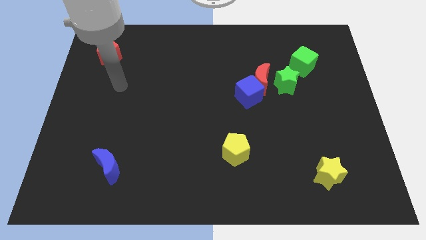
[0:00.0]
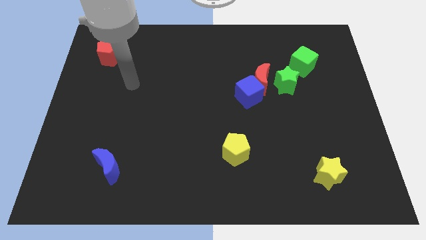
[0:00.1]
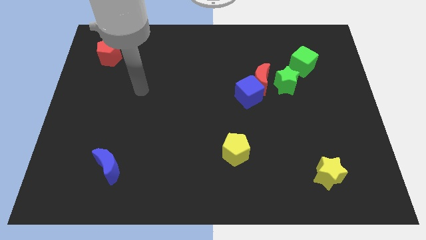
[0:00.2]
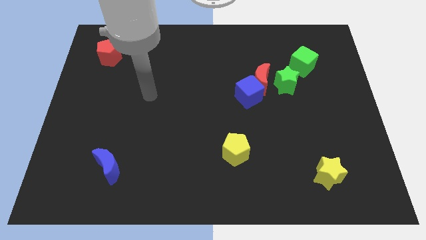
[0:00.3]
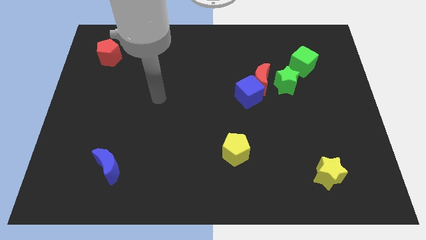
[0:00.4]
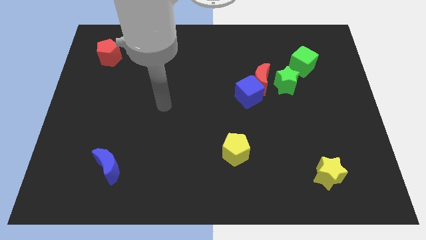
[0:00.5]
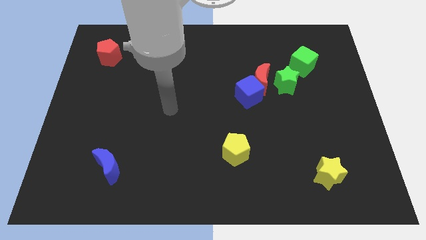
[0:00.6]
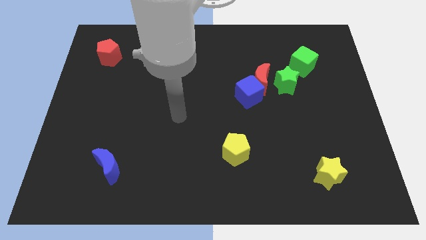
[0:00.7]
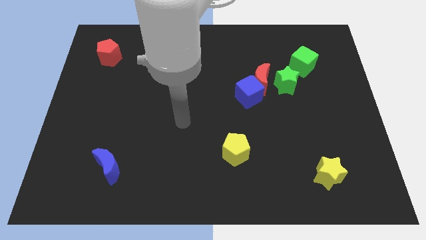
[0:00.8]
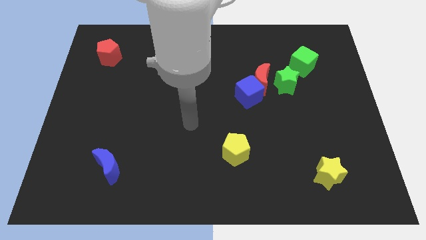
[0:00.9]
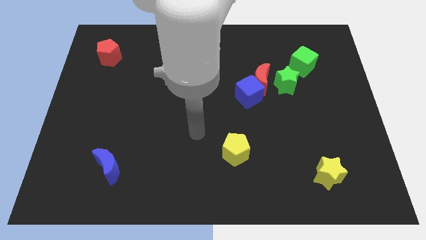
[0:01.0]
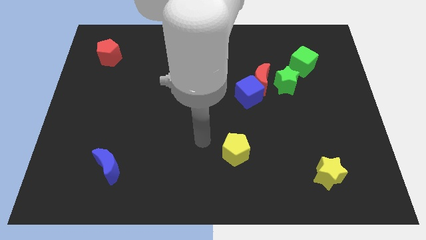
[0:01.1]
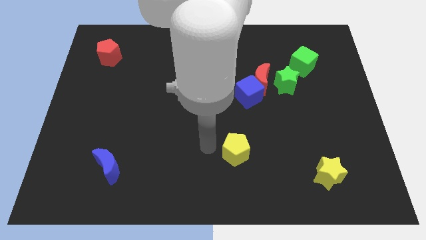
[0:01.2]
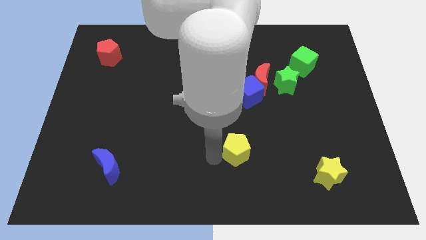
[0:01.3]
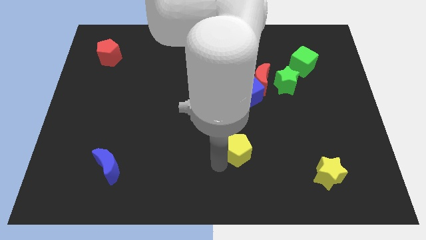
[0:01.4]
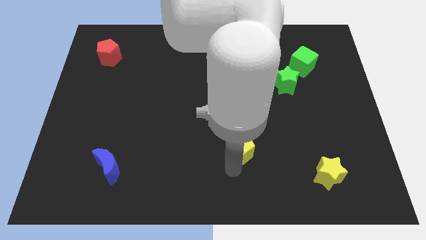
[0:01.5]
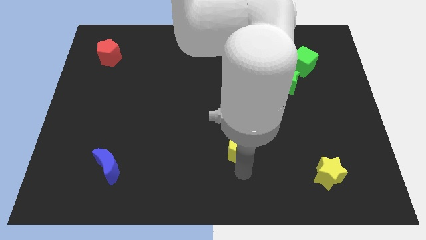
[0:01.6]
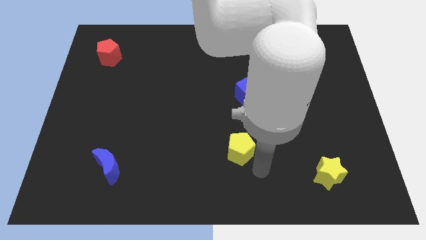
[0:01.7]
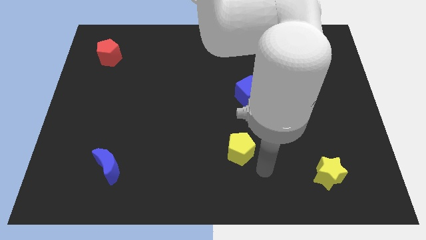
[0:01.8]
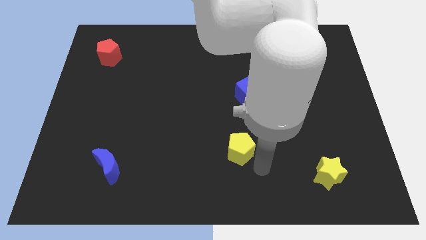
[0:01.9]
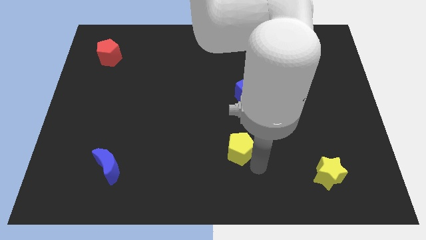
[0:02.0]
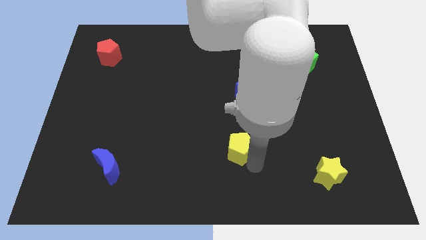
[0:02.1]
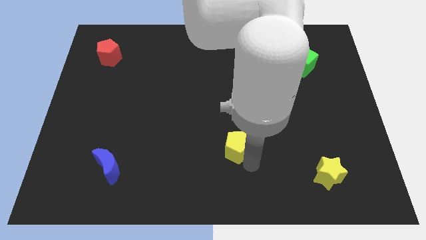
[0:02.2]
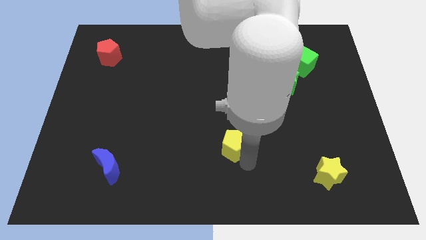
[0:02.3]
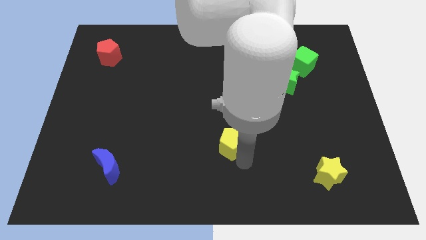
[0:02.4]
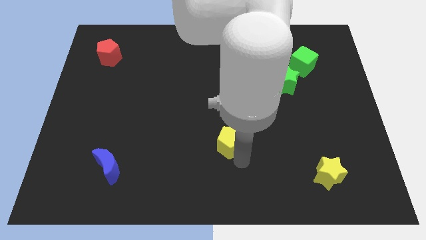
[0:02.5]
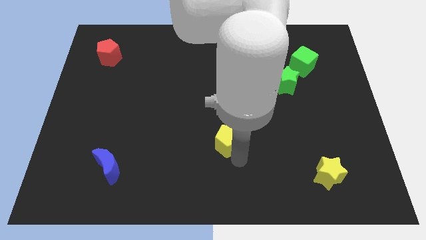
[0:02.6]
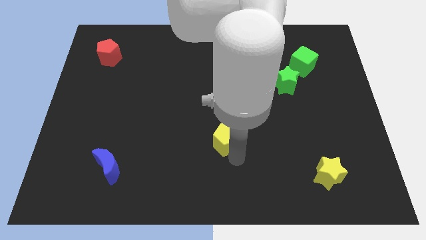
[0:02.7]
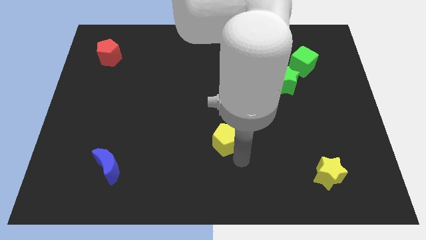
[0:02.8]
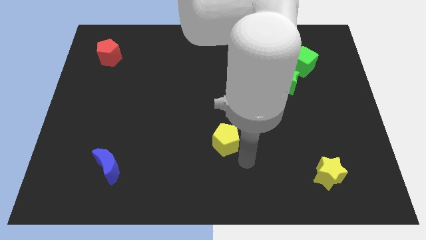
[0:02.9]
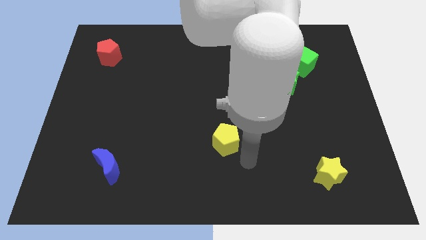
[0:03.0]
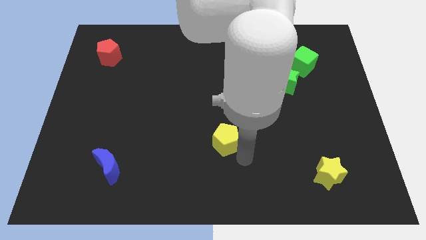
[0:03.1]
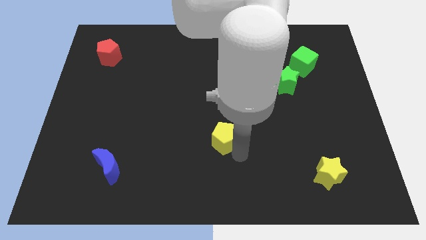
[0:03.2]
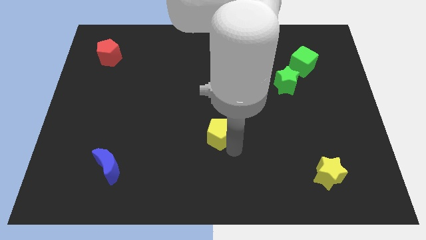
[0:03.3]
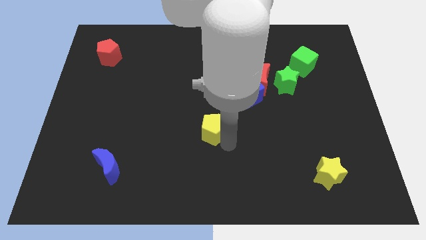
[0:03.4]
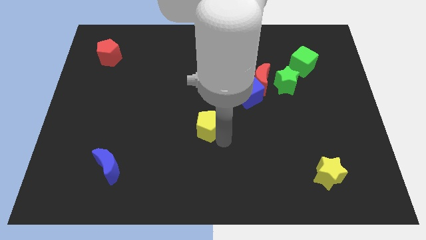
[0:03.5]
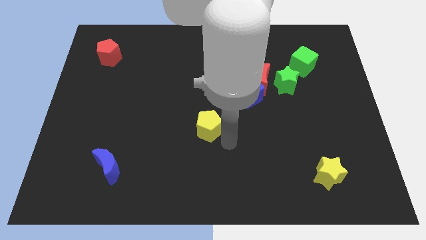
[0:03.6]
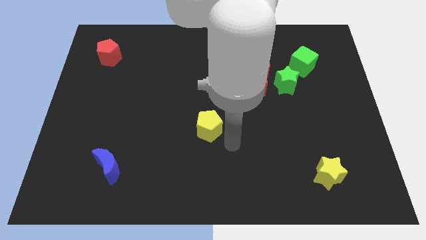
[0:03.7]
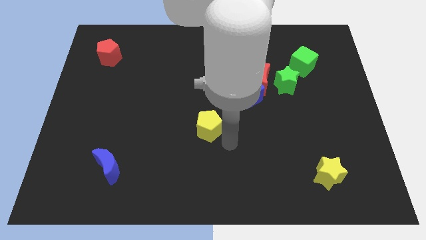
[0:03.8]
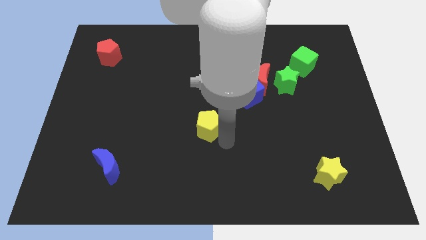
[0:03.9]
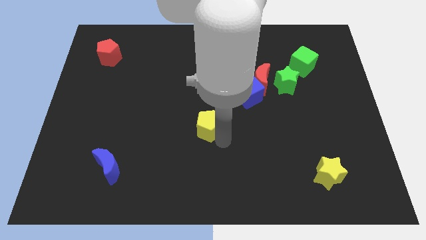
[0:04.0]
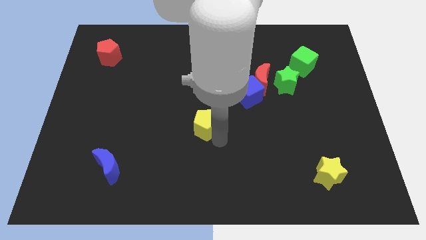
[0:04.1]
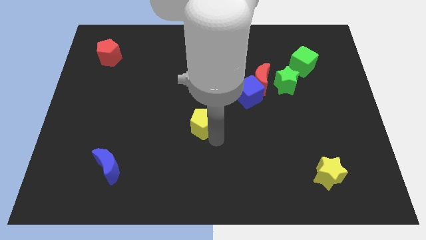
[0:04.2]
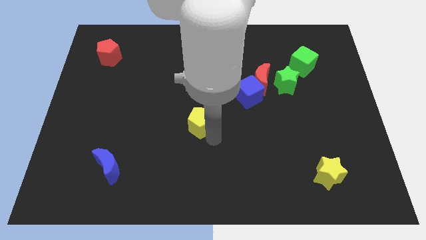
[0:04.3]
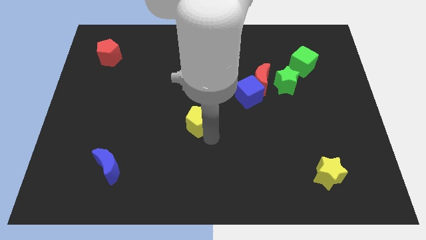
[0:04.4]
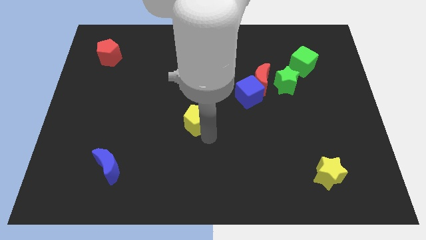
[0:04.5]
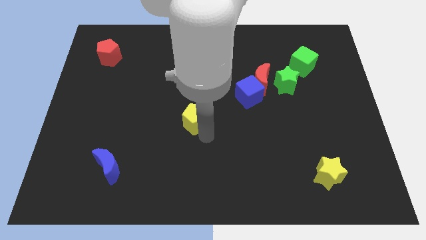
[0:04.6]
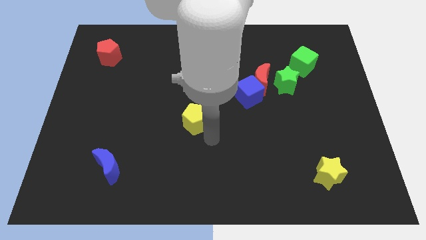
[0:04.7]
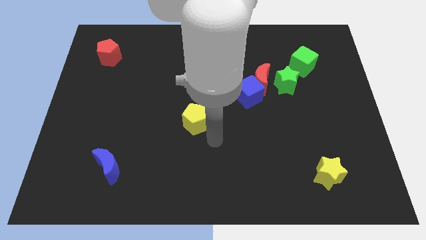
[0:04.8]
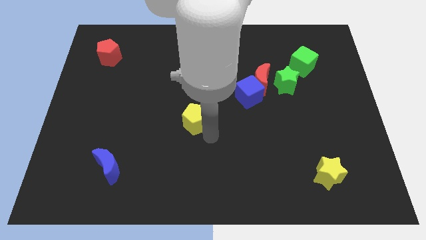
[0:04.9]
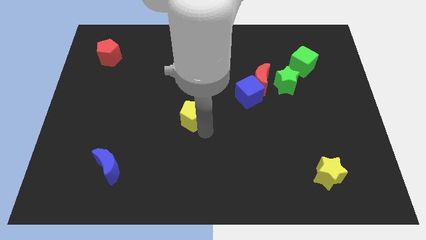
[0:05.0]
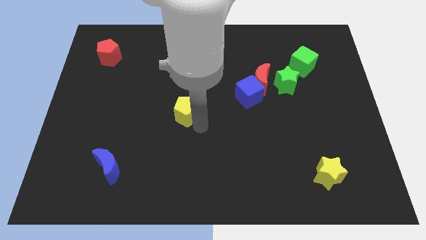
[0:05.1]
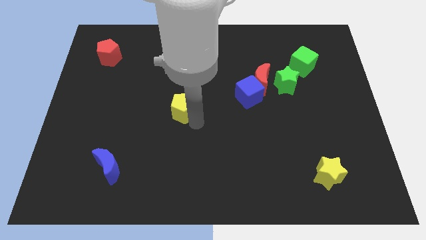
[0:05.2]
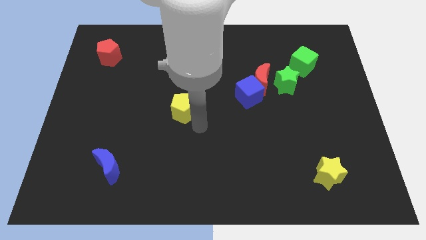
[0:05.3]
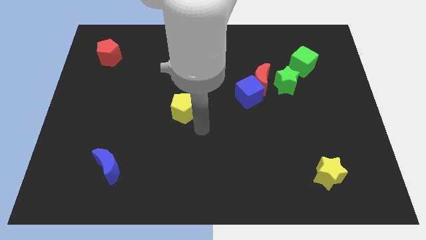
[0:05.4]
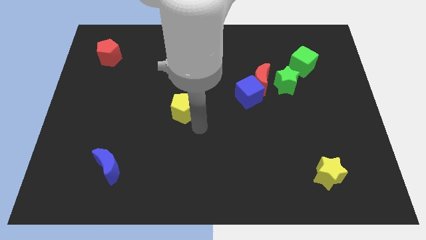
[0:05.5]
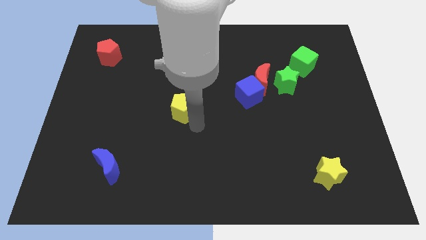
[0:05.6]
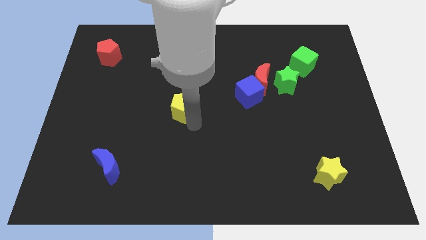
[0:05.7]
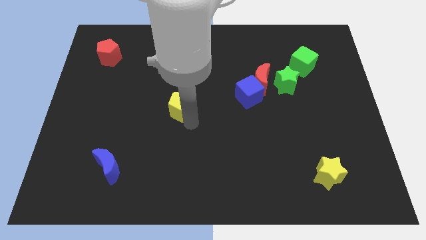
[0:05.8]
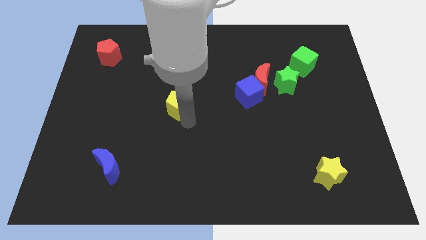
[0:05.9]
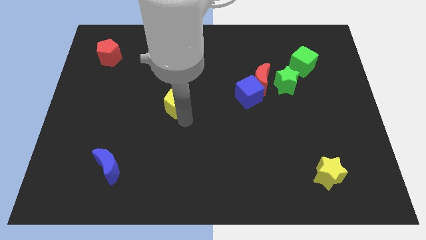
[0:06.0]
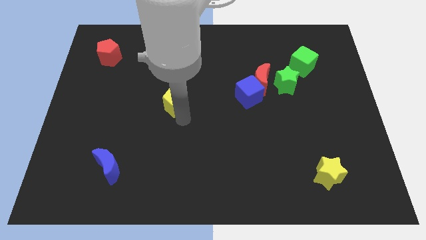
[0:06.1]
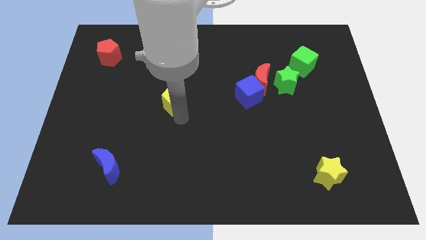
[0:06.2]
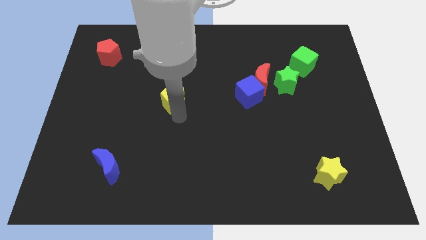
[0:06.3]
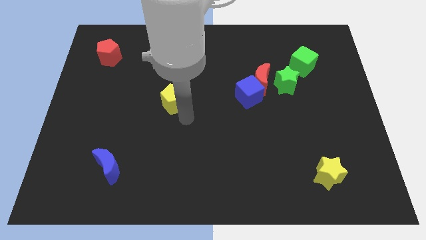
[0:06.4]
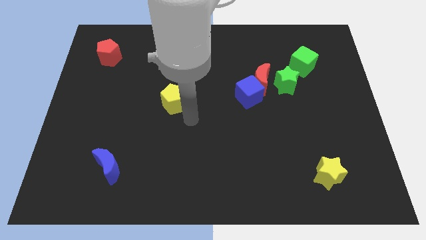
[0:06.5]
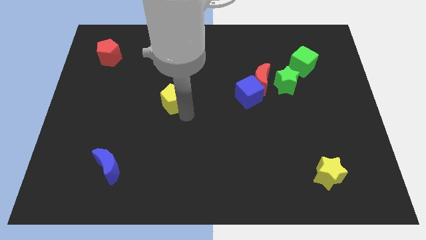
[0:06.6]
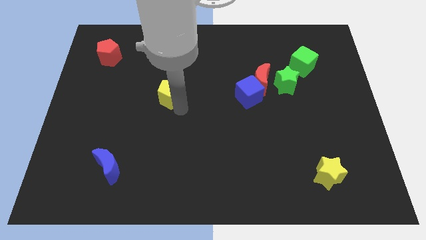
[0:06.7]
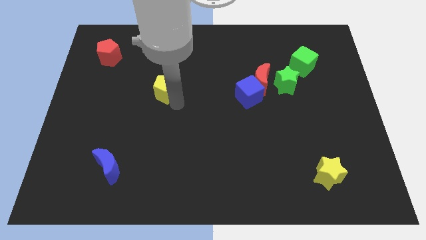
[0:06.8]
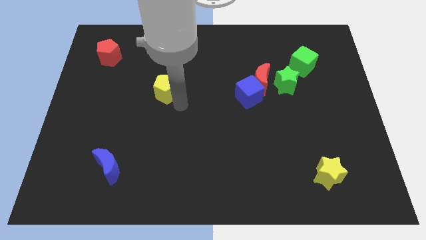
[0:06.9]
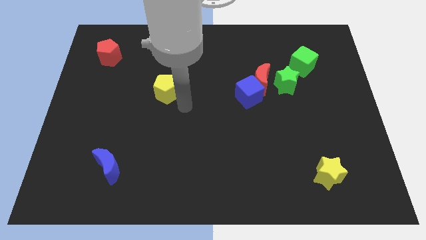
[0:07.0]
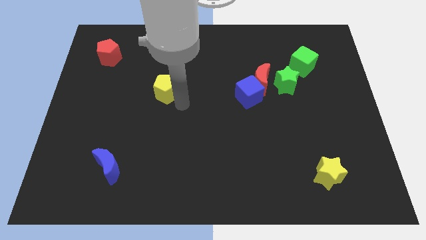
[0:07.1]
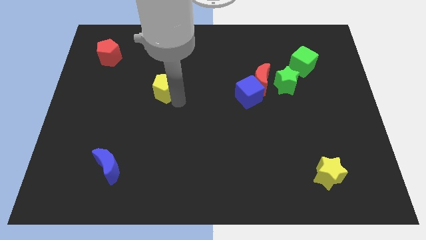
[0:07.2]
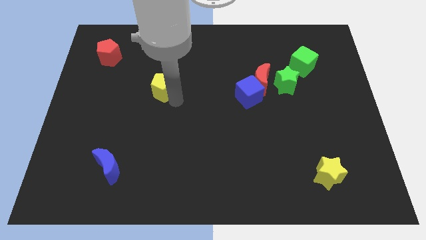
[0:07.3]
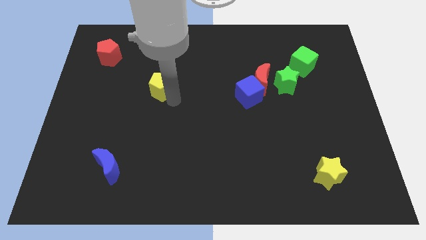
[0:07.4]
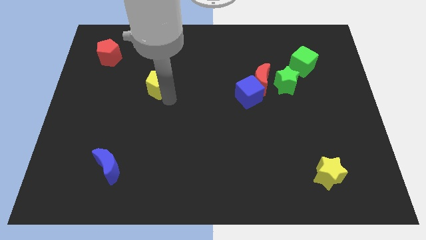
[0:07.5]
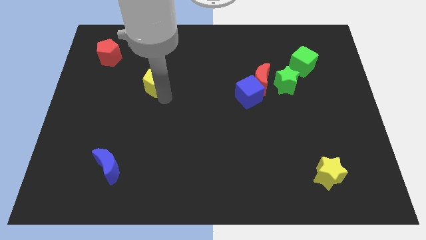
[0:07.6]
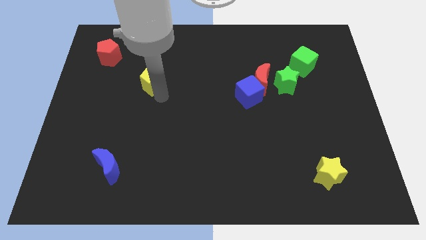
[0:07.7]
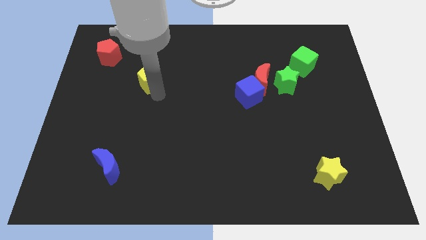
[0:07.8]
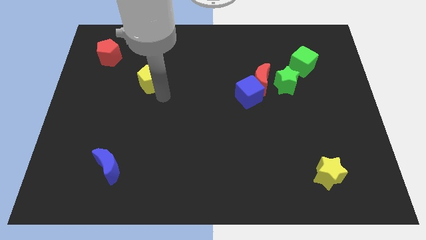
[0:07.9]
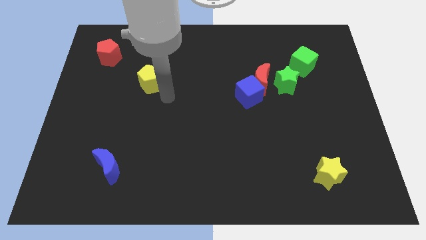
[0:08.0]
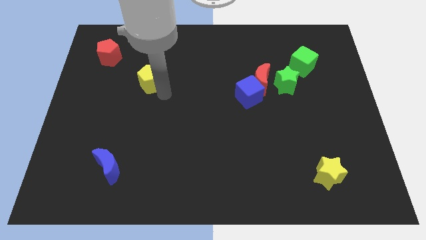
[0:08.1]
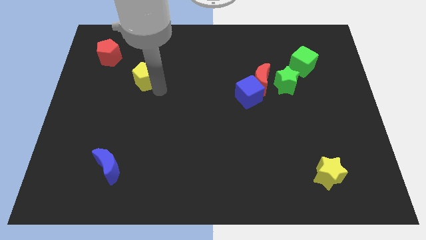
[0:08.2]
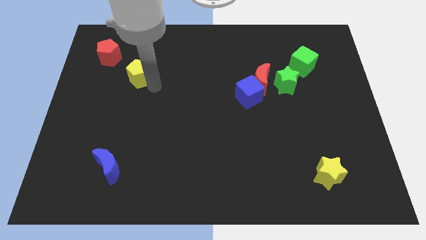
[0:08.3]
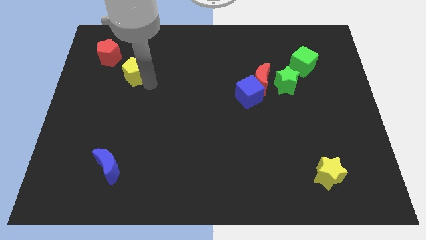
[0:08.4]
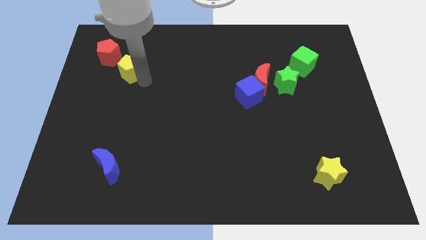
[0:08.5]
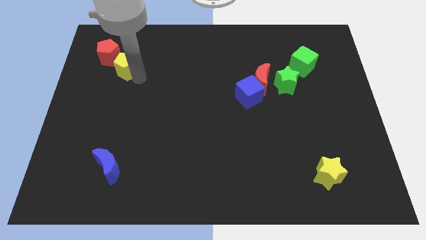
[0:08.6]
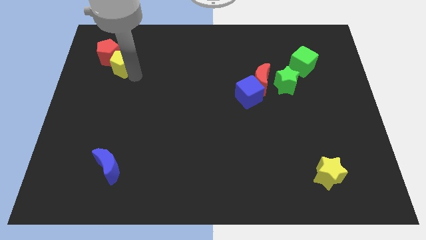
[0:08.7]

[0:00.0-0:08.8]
push the yellow pentagon close to the red pentagon
